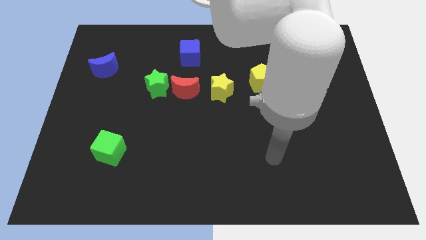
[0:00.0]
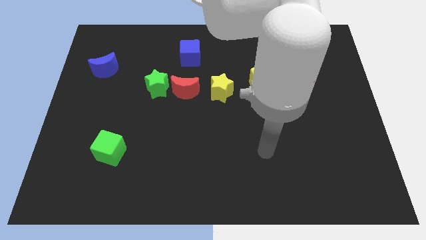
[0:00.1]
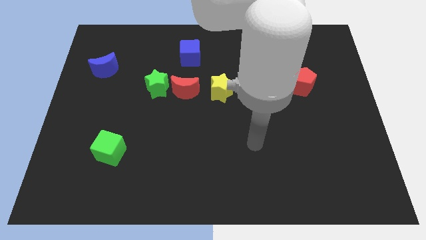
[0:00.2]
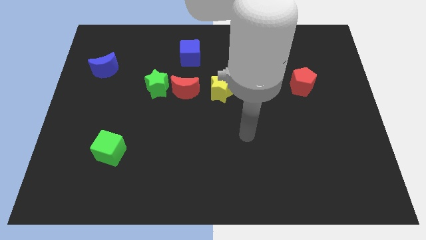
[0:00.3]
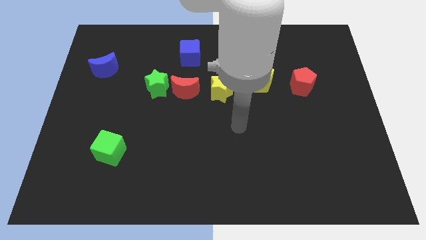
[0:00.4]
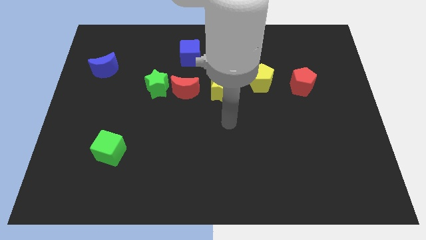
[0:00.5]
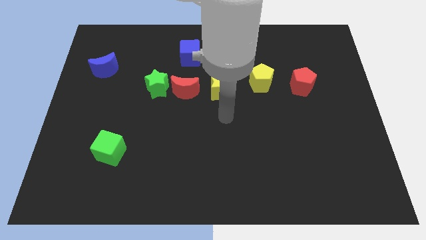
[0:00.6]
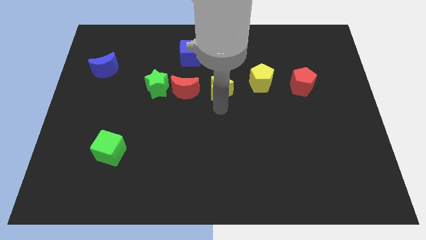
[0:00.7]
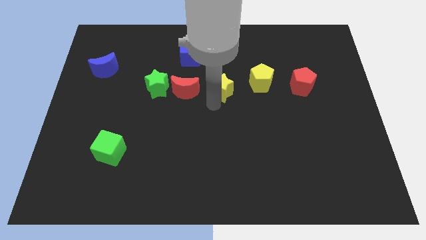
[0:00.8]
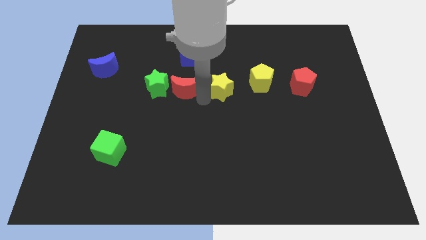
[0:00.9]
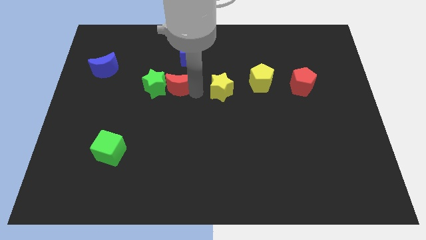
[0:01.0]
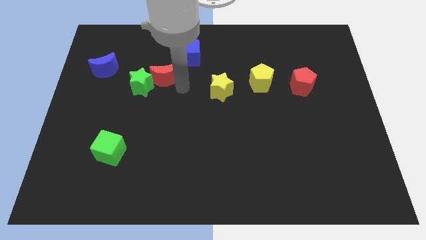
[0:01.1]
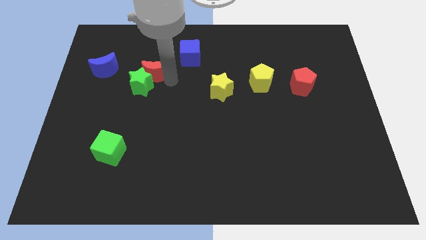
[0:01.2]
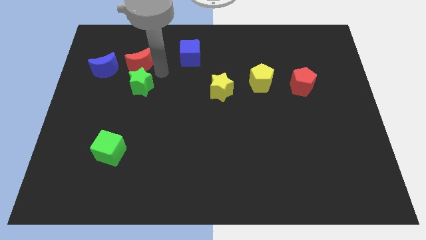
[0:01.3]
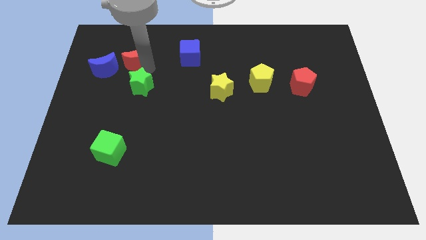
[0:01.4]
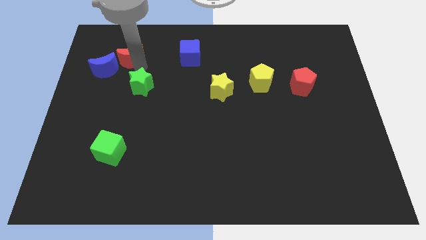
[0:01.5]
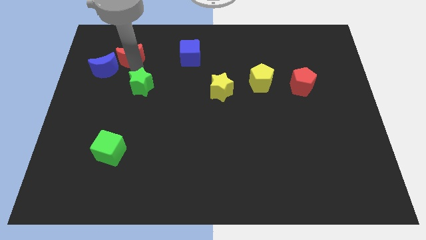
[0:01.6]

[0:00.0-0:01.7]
pull the green star apart from the red moon

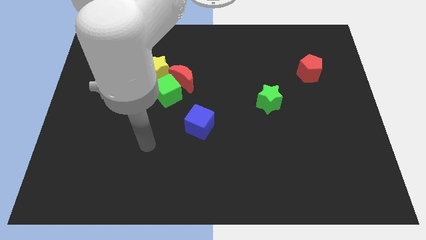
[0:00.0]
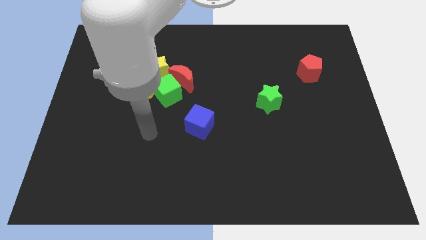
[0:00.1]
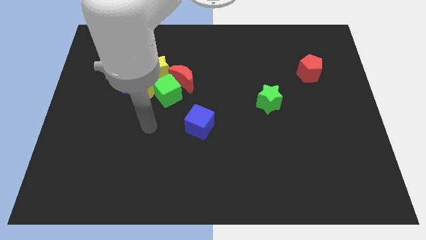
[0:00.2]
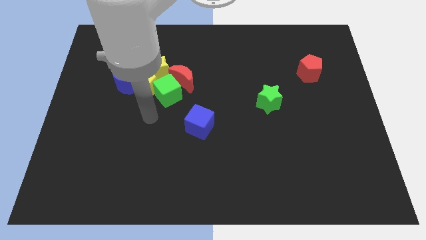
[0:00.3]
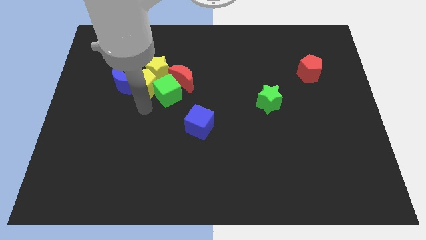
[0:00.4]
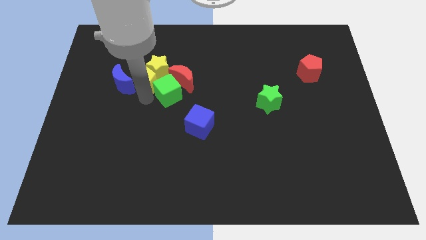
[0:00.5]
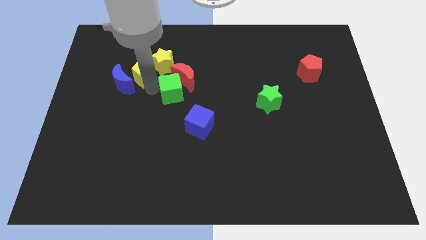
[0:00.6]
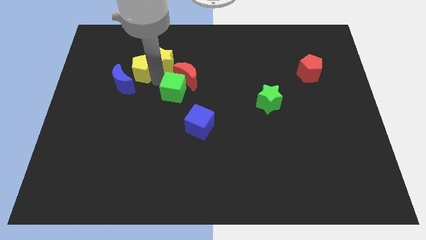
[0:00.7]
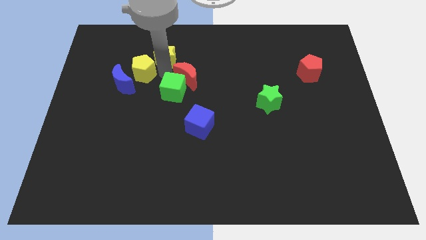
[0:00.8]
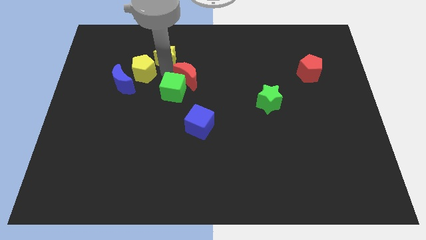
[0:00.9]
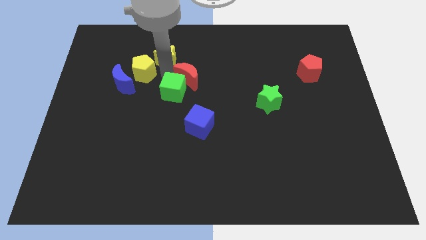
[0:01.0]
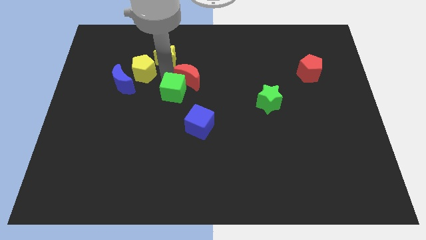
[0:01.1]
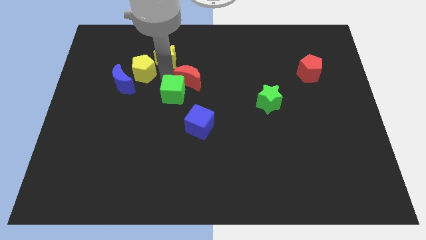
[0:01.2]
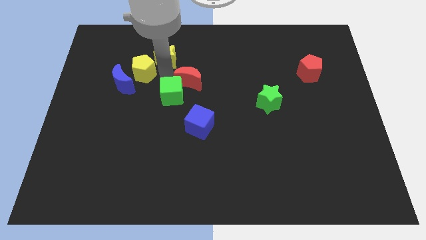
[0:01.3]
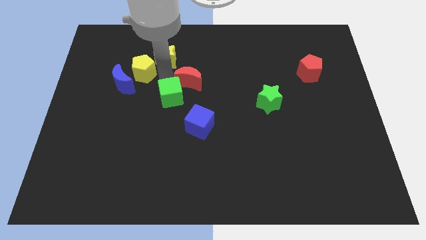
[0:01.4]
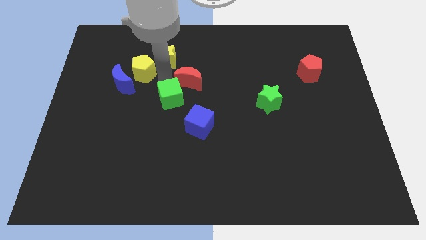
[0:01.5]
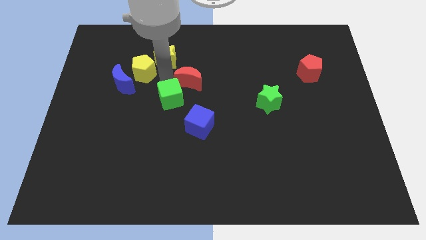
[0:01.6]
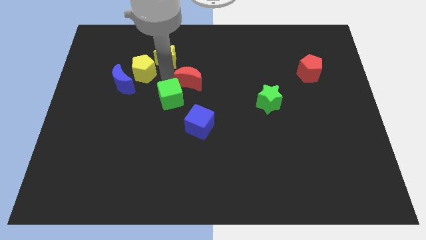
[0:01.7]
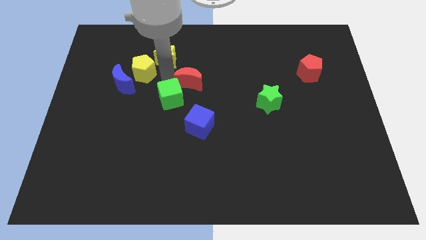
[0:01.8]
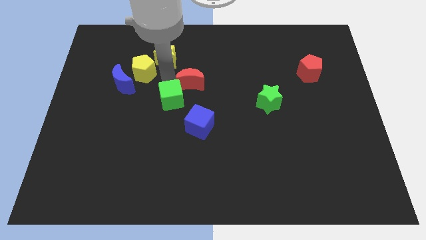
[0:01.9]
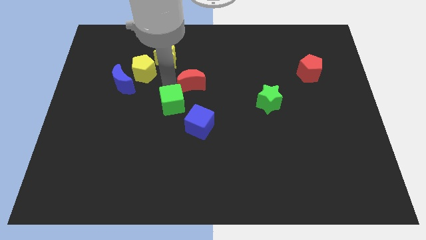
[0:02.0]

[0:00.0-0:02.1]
move the green cube away from the clump

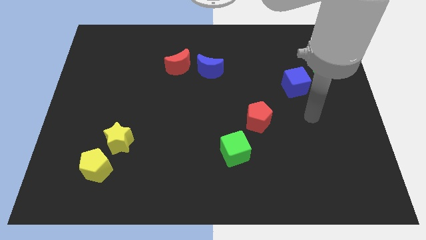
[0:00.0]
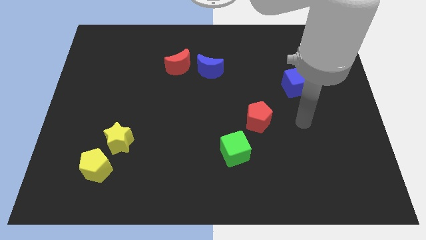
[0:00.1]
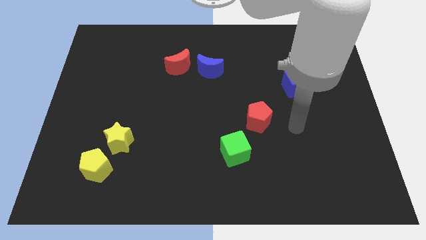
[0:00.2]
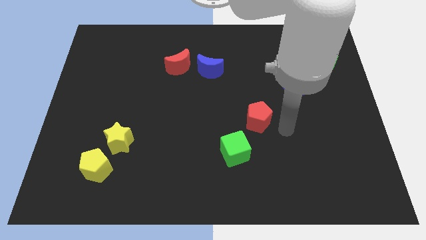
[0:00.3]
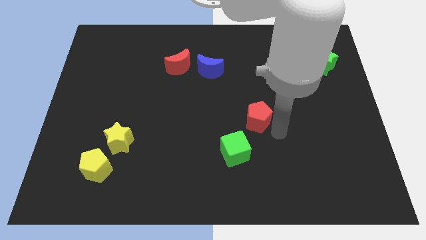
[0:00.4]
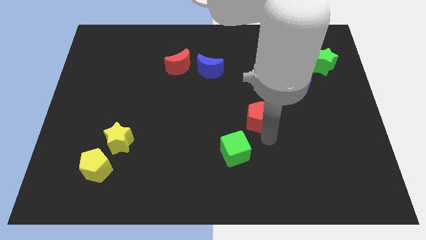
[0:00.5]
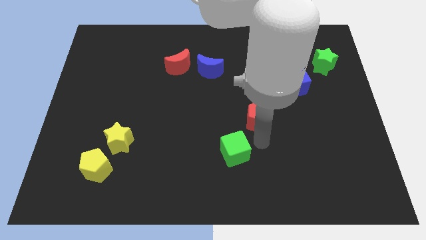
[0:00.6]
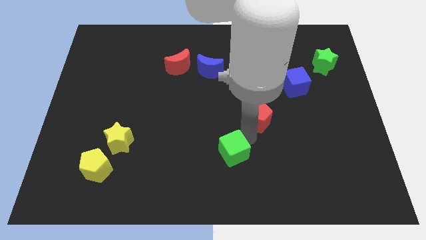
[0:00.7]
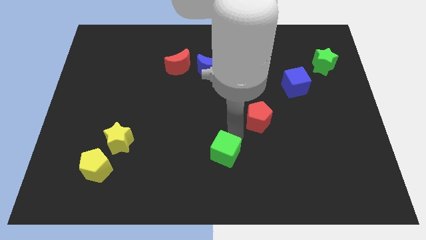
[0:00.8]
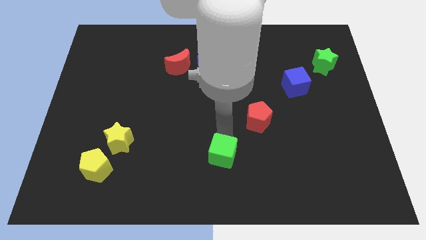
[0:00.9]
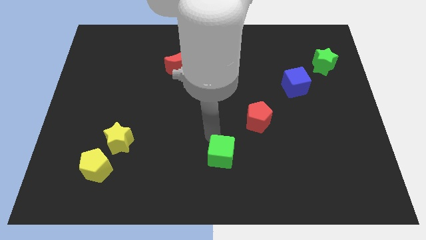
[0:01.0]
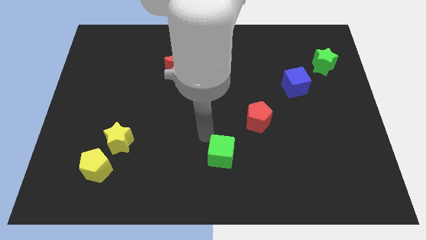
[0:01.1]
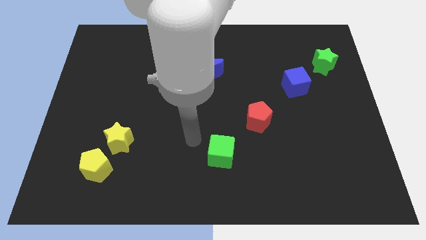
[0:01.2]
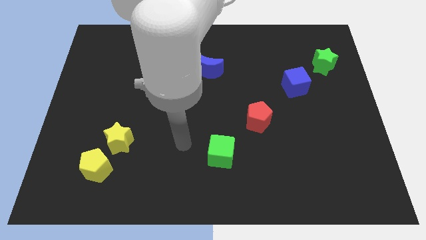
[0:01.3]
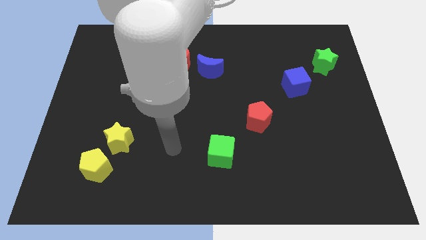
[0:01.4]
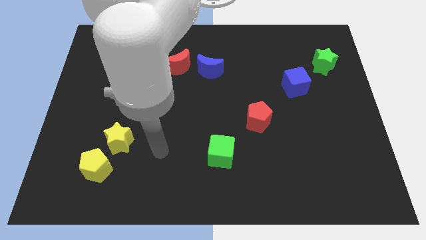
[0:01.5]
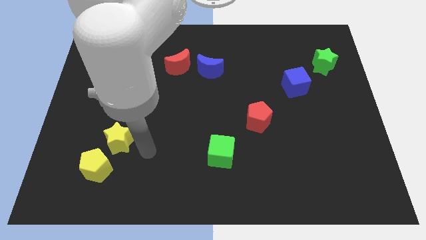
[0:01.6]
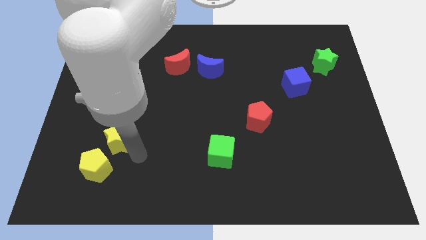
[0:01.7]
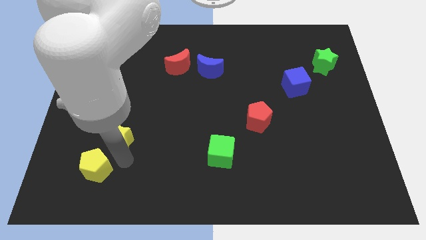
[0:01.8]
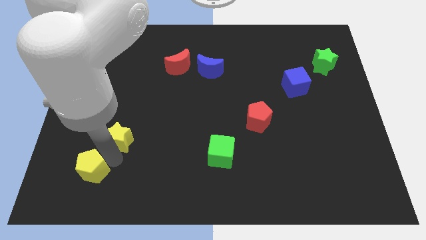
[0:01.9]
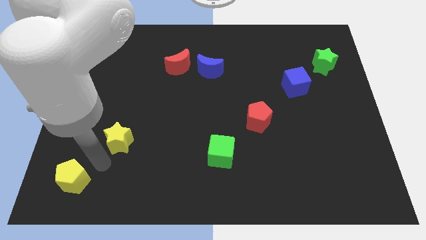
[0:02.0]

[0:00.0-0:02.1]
pull the yellow star apart from the yellow pentagon

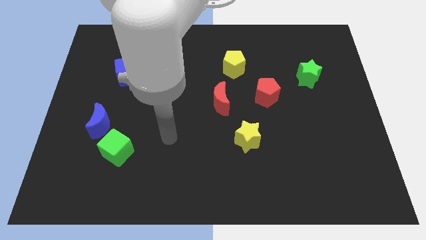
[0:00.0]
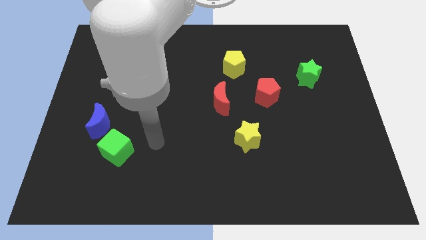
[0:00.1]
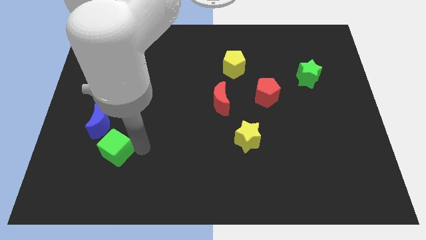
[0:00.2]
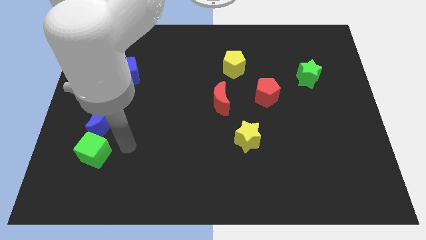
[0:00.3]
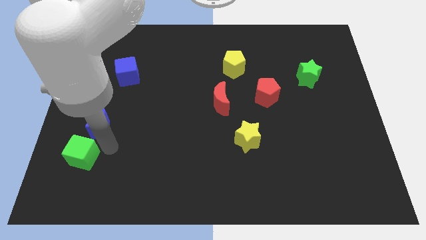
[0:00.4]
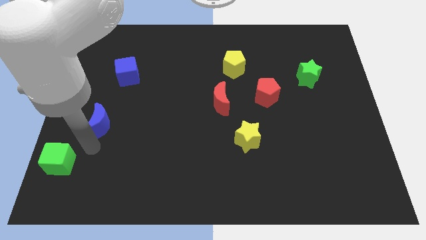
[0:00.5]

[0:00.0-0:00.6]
move the blue moon away from the green cube

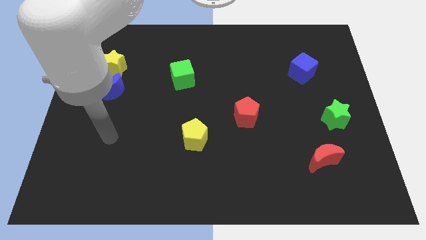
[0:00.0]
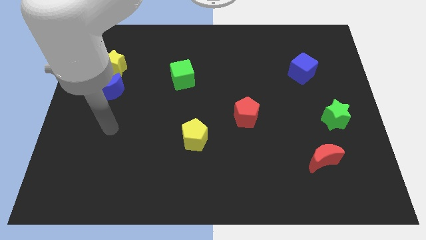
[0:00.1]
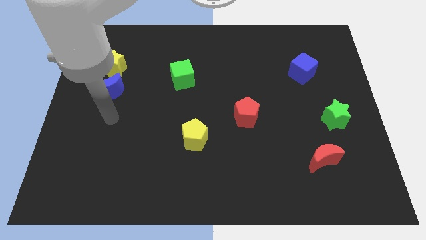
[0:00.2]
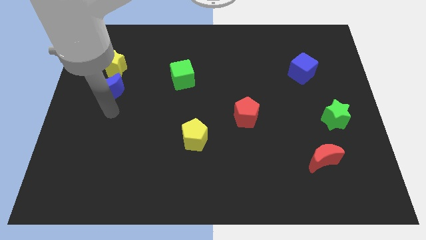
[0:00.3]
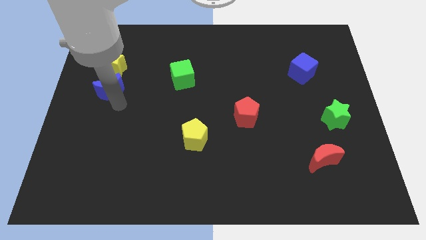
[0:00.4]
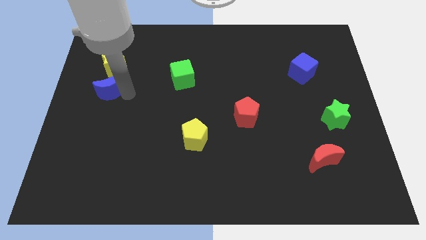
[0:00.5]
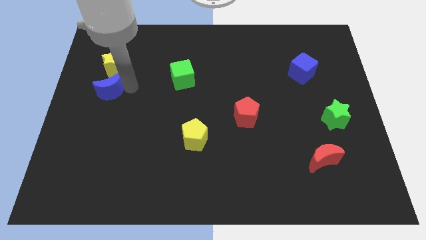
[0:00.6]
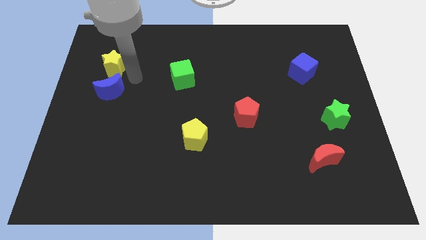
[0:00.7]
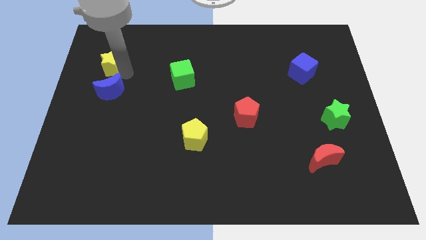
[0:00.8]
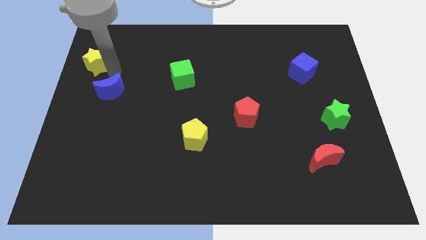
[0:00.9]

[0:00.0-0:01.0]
pull the blue moon apart from the yellow star

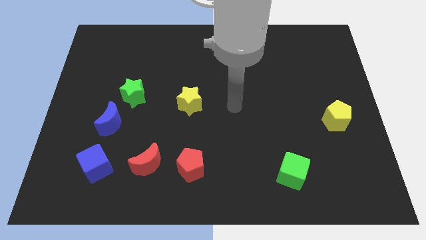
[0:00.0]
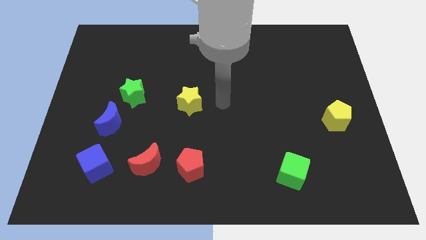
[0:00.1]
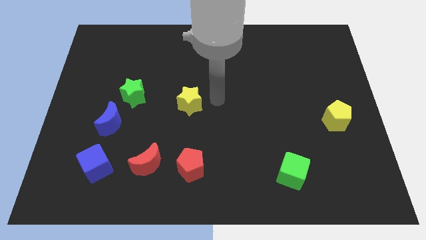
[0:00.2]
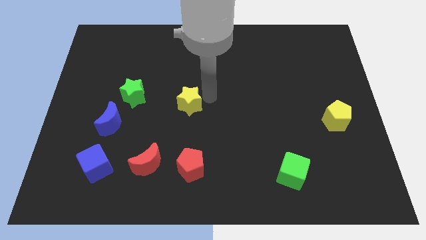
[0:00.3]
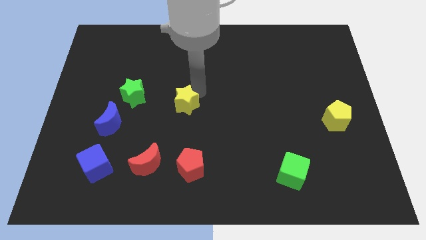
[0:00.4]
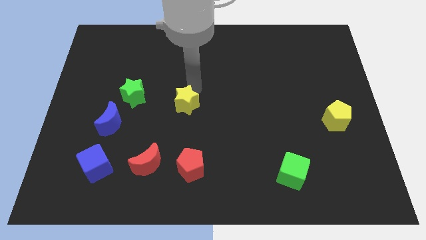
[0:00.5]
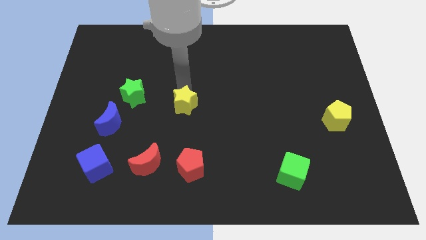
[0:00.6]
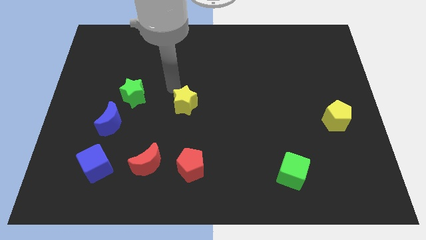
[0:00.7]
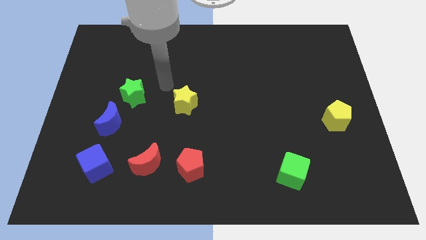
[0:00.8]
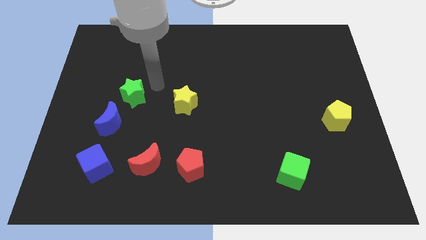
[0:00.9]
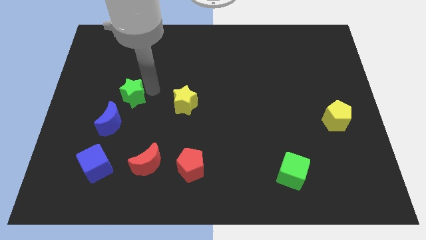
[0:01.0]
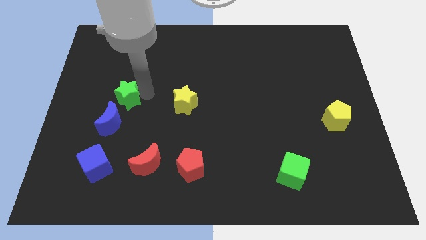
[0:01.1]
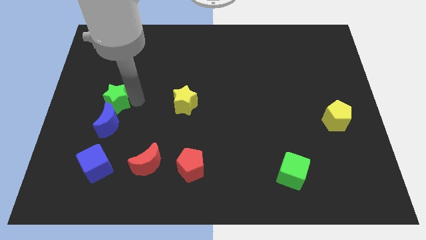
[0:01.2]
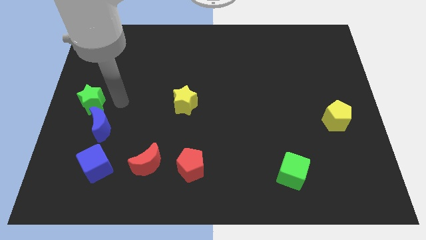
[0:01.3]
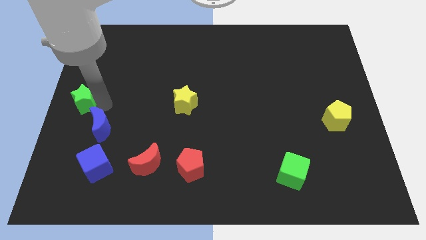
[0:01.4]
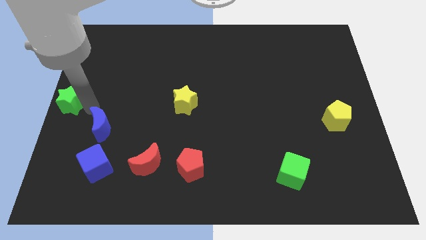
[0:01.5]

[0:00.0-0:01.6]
separate the blue moon from the green star

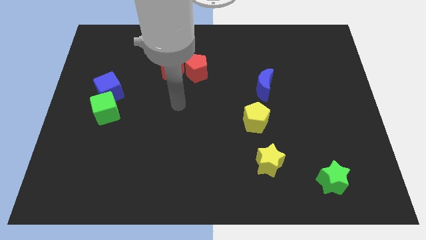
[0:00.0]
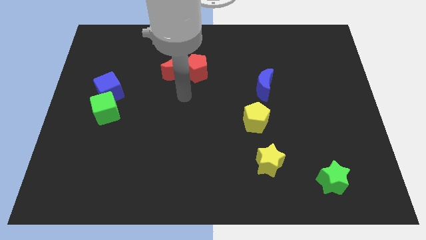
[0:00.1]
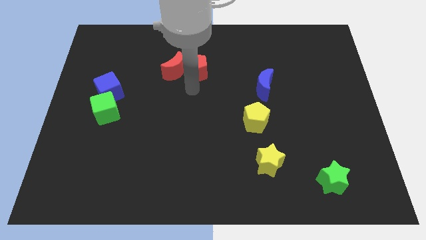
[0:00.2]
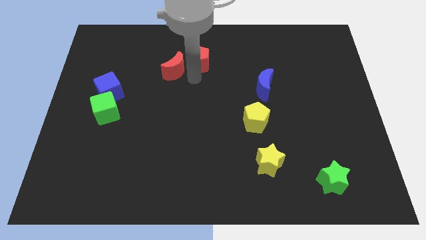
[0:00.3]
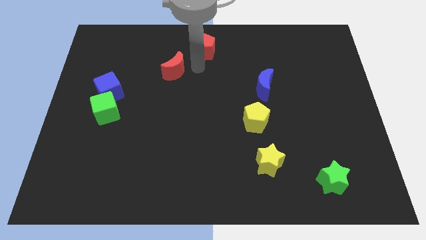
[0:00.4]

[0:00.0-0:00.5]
move the red moon away from the red pentagon
